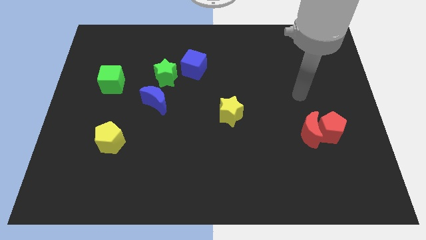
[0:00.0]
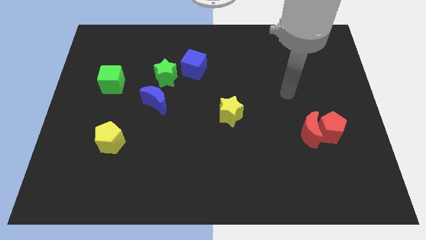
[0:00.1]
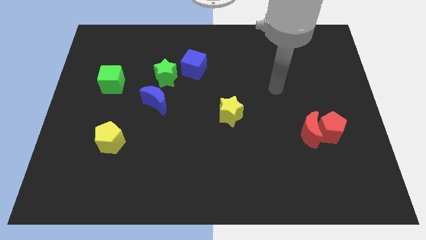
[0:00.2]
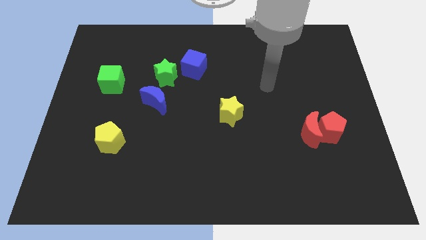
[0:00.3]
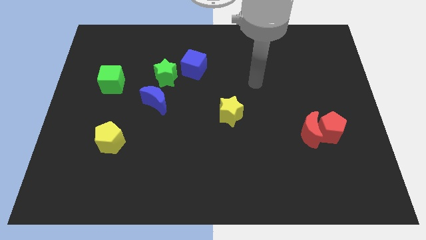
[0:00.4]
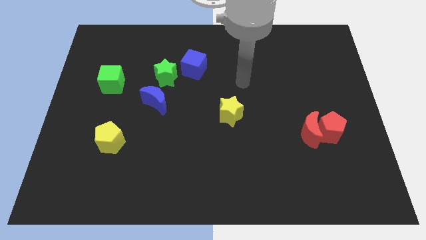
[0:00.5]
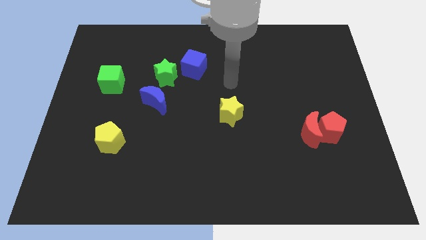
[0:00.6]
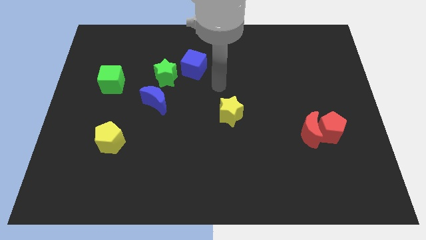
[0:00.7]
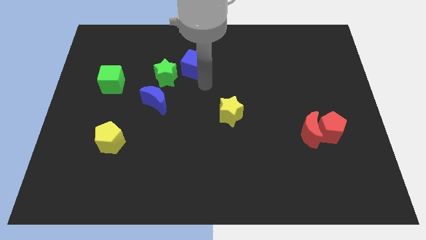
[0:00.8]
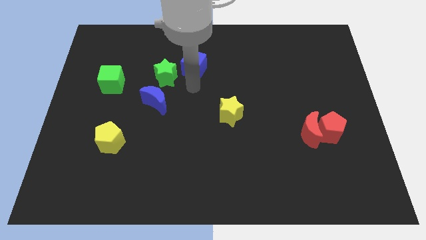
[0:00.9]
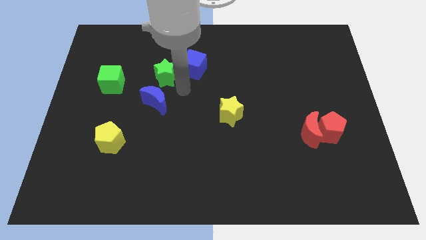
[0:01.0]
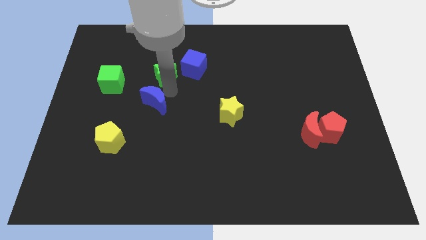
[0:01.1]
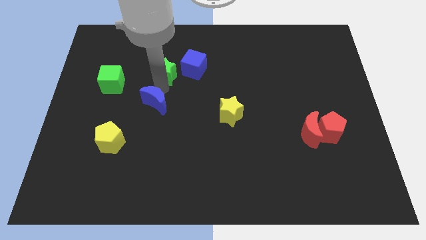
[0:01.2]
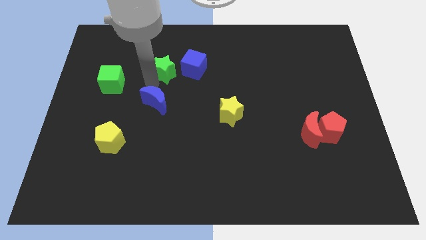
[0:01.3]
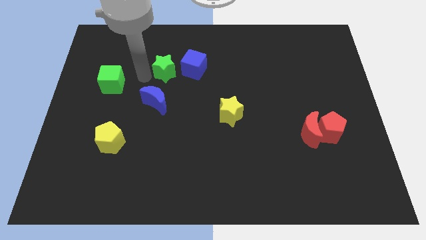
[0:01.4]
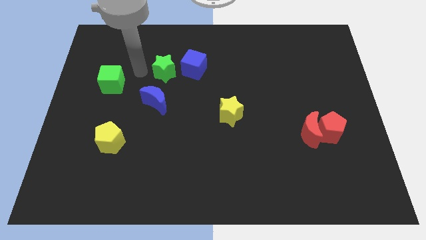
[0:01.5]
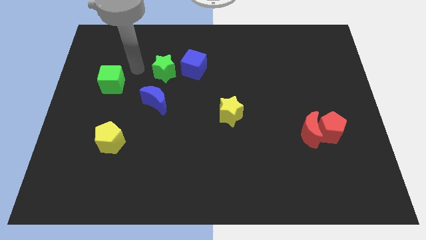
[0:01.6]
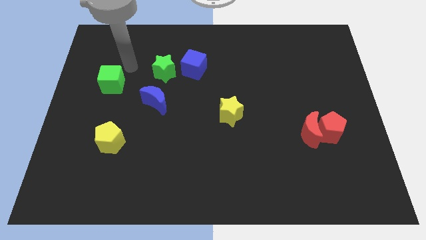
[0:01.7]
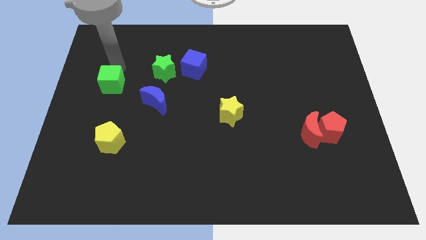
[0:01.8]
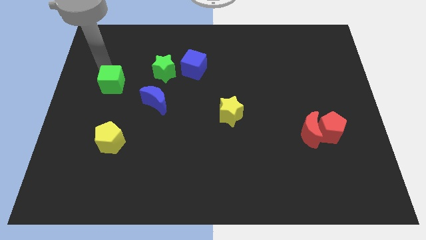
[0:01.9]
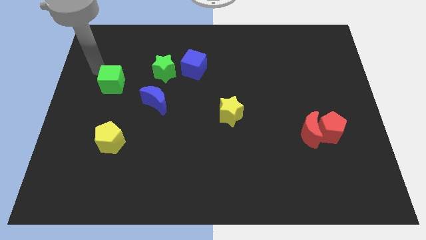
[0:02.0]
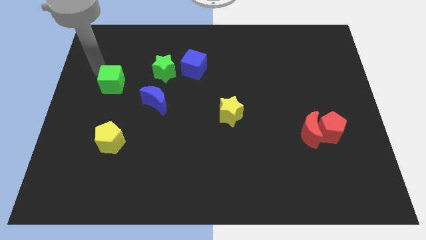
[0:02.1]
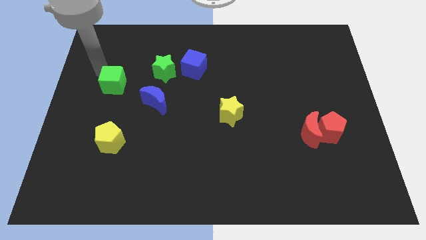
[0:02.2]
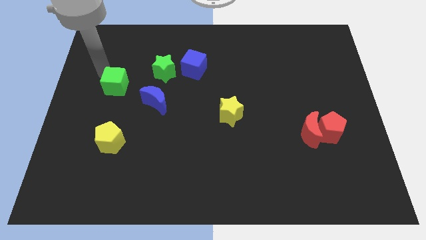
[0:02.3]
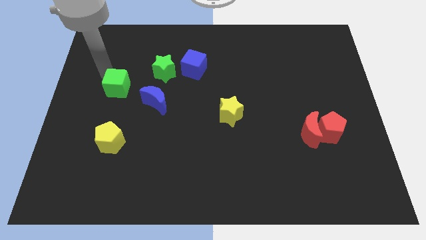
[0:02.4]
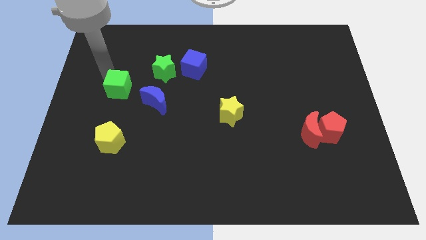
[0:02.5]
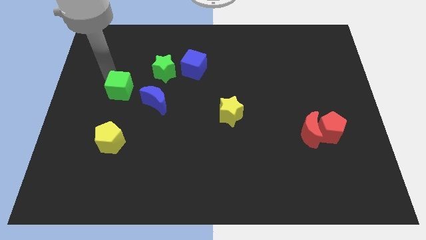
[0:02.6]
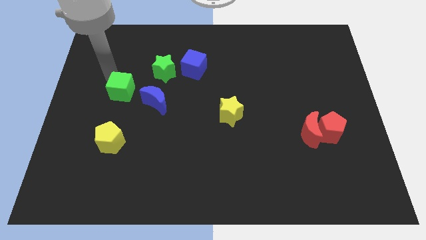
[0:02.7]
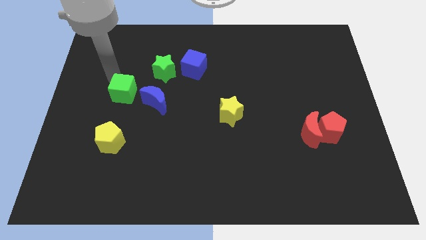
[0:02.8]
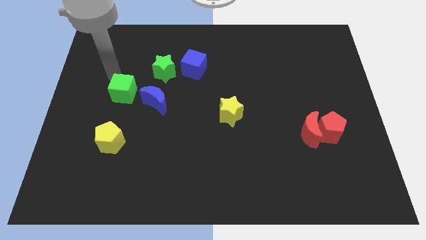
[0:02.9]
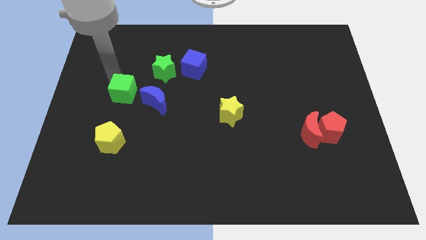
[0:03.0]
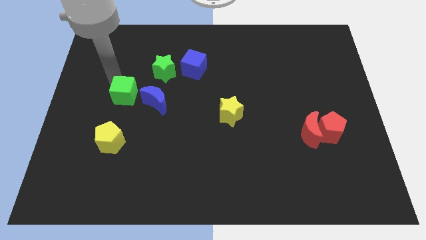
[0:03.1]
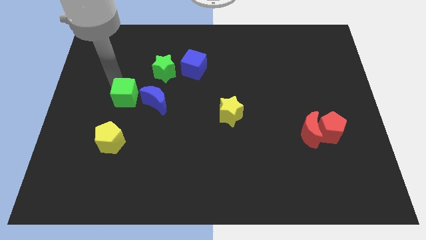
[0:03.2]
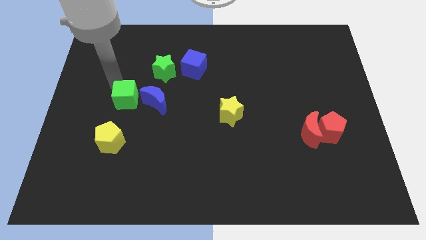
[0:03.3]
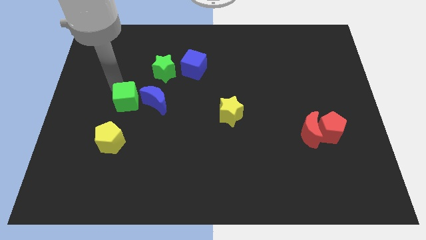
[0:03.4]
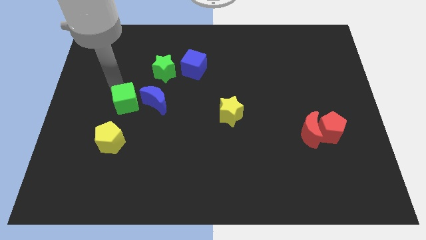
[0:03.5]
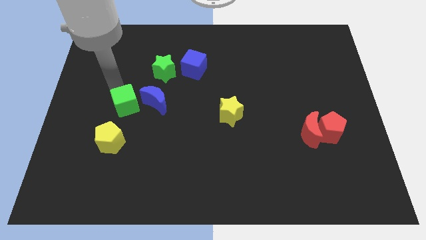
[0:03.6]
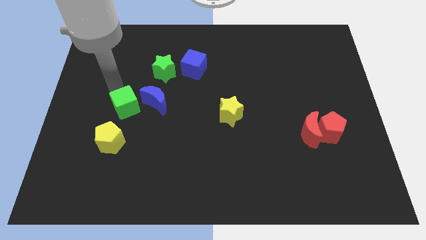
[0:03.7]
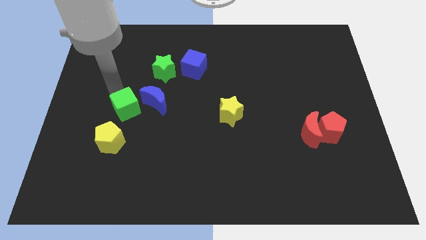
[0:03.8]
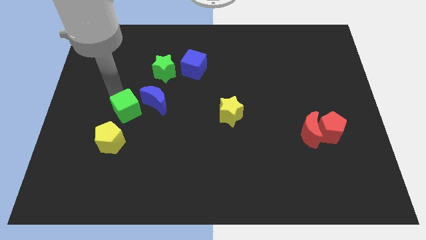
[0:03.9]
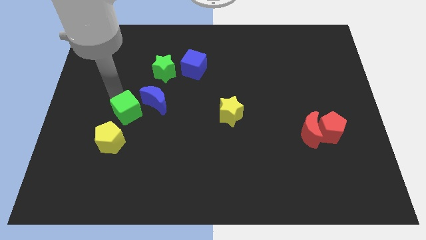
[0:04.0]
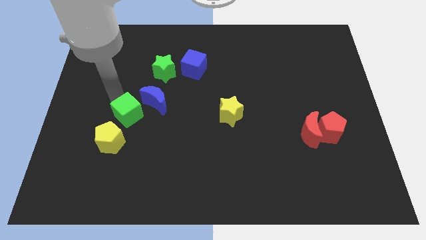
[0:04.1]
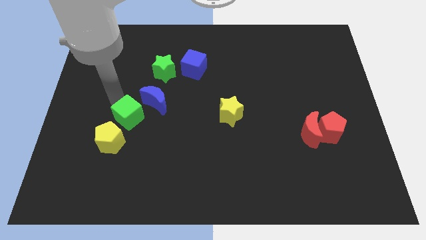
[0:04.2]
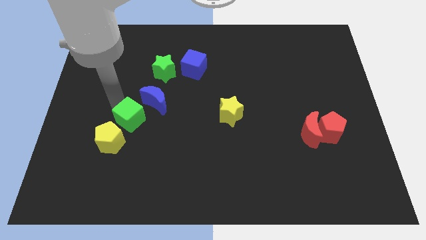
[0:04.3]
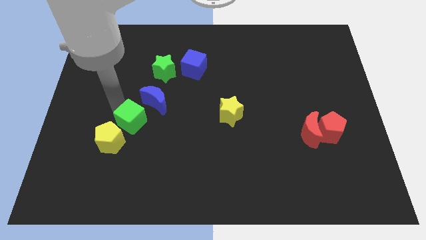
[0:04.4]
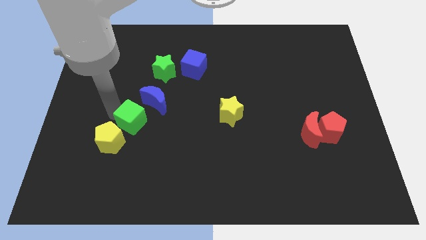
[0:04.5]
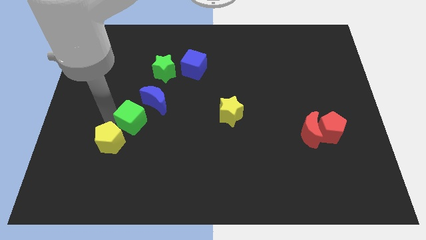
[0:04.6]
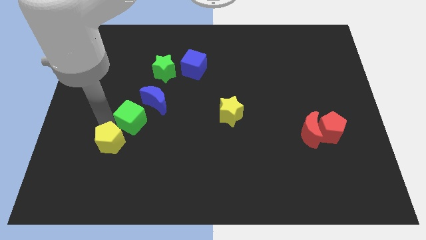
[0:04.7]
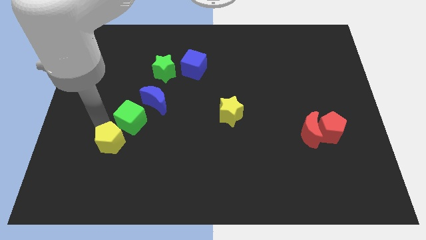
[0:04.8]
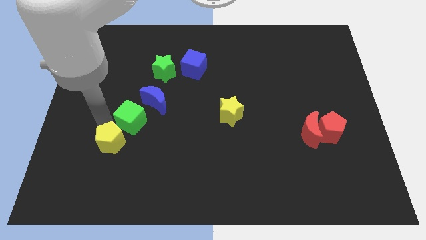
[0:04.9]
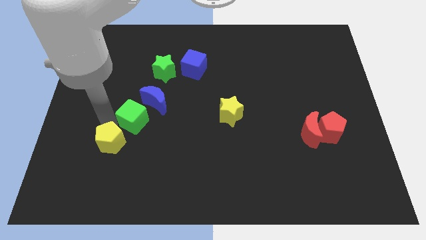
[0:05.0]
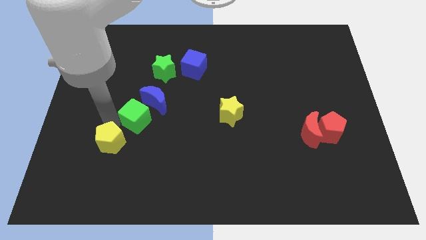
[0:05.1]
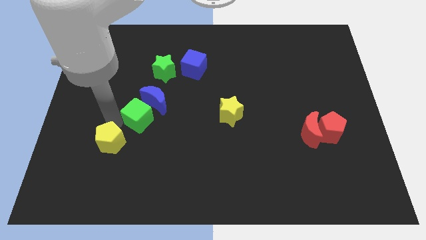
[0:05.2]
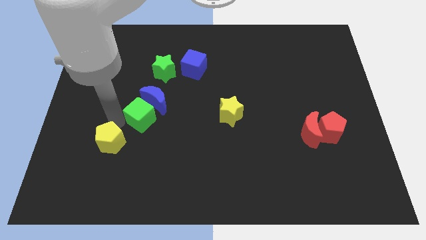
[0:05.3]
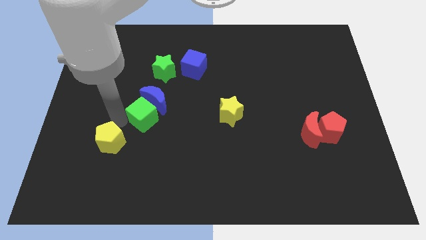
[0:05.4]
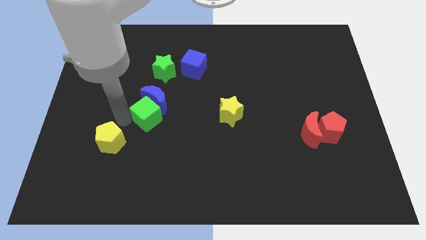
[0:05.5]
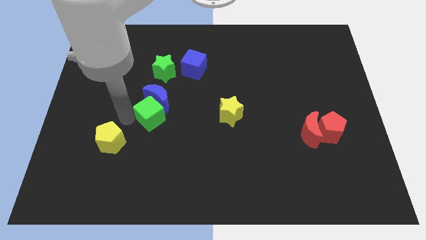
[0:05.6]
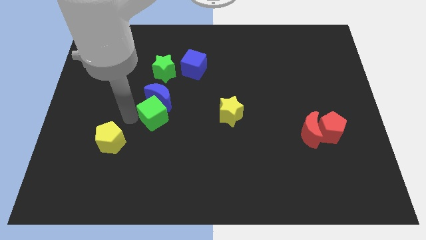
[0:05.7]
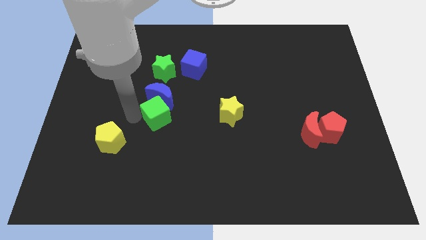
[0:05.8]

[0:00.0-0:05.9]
slide the green cube a bit right

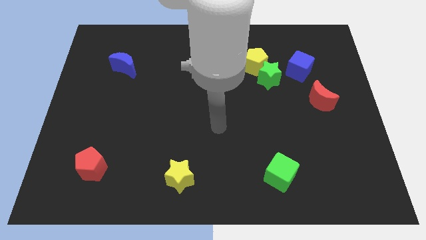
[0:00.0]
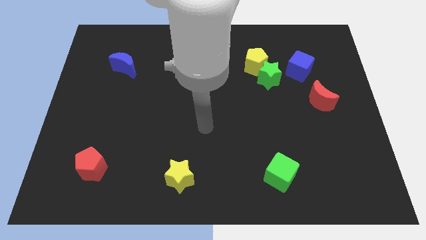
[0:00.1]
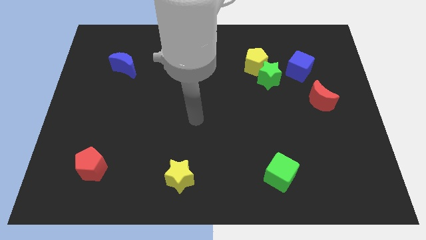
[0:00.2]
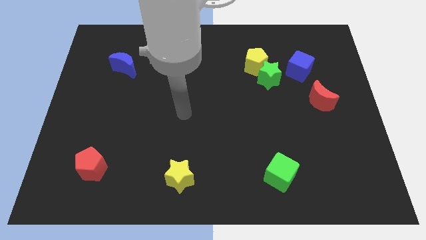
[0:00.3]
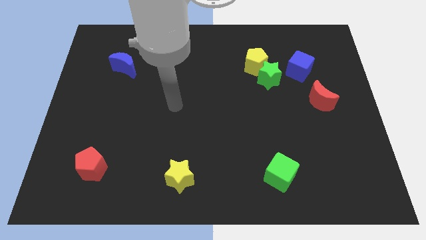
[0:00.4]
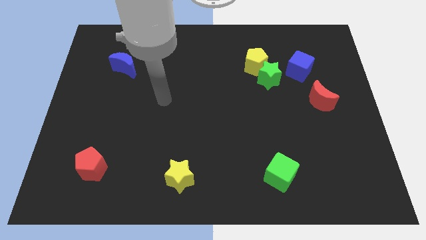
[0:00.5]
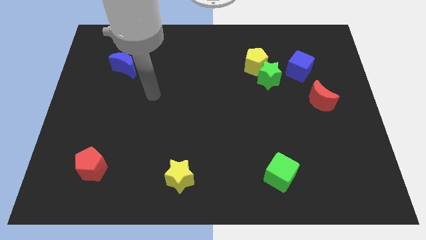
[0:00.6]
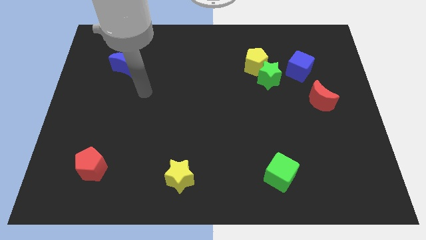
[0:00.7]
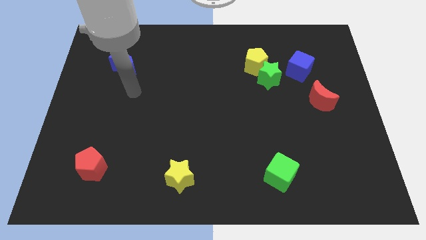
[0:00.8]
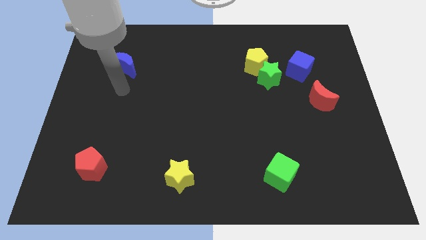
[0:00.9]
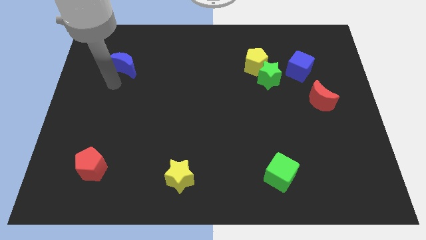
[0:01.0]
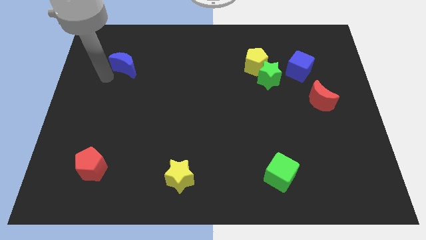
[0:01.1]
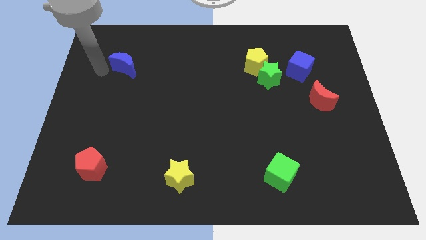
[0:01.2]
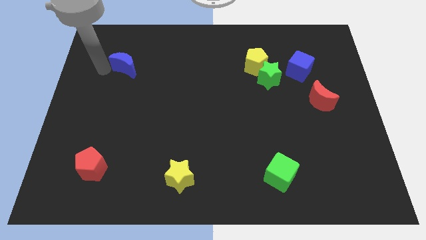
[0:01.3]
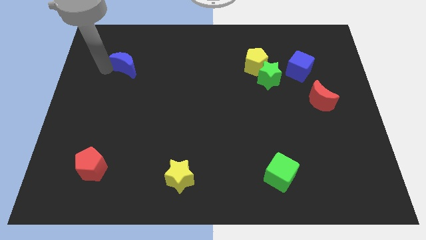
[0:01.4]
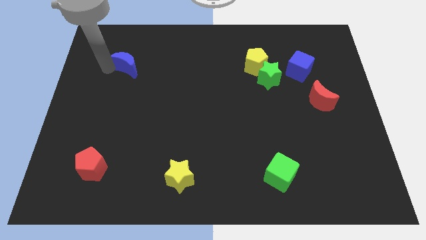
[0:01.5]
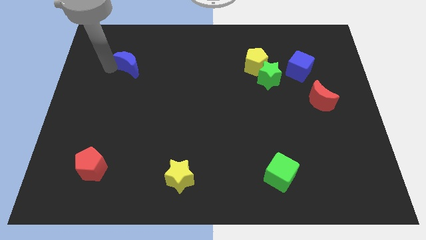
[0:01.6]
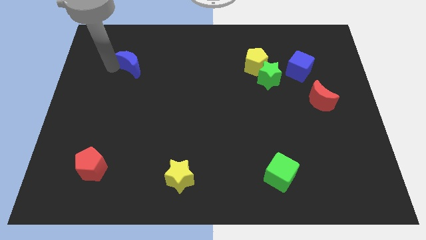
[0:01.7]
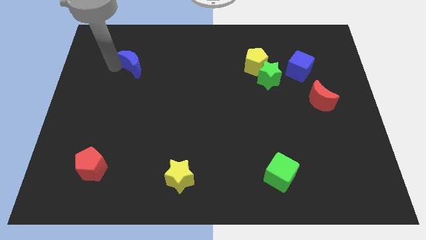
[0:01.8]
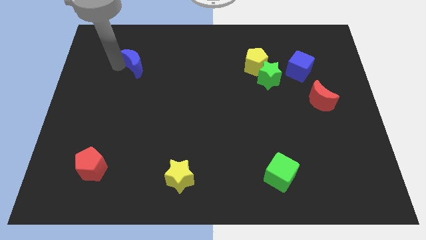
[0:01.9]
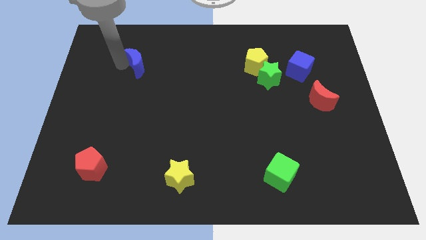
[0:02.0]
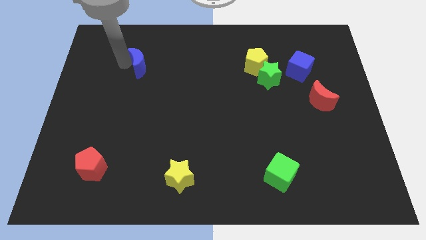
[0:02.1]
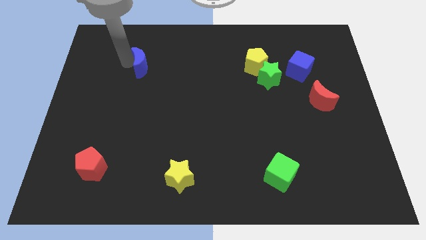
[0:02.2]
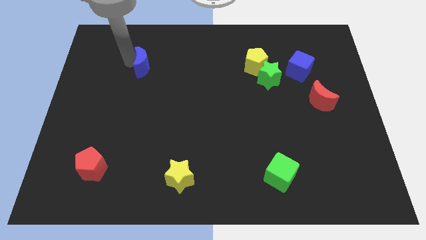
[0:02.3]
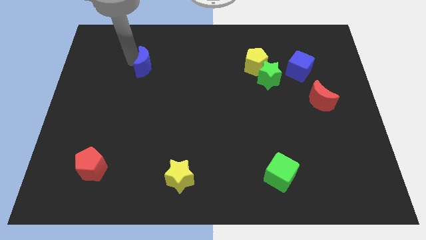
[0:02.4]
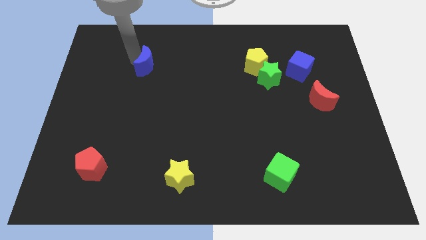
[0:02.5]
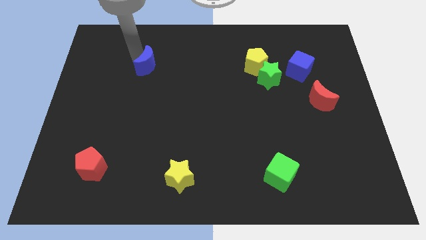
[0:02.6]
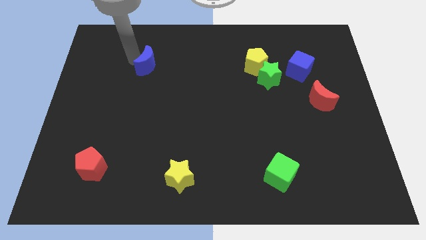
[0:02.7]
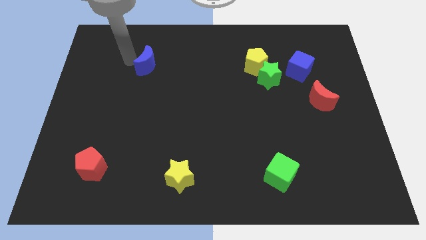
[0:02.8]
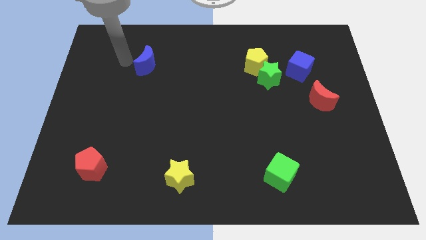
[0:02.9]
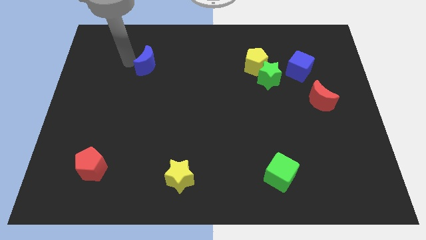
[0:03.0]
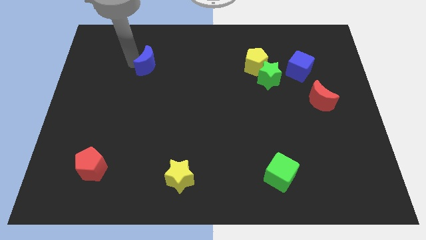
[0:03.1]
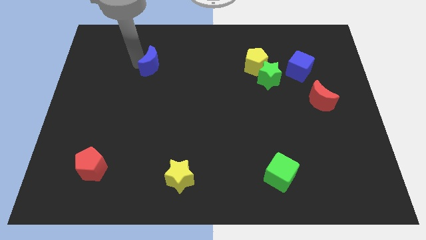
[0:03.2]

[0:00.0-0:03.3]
push the blue moon somewhat right
